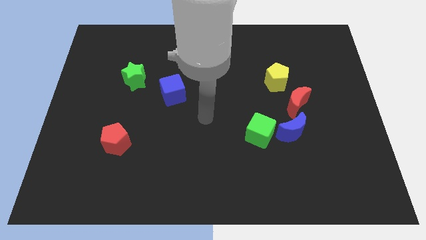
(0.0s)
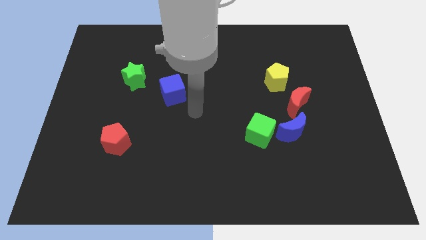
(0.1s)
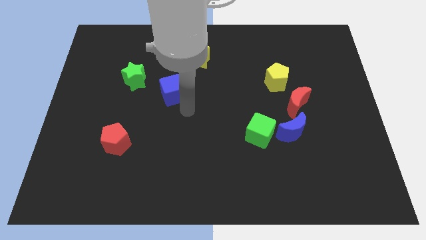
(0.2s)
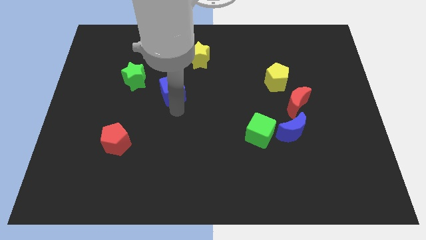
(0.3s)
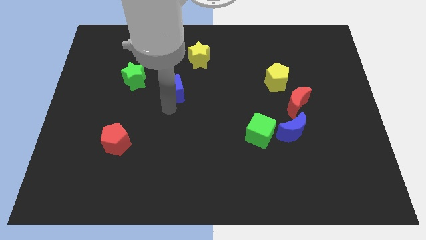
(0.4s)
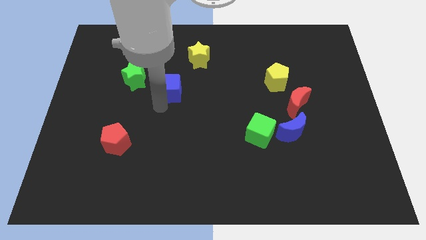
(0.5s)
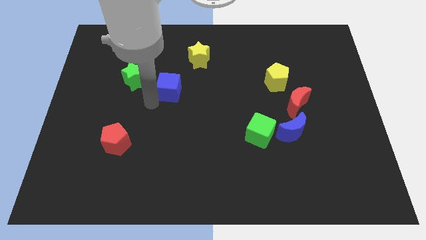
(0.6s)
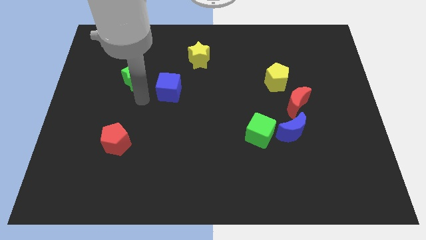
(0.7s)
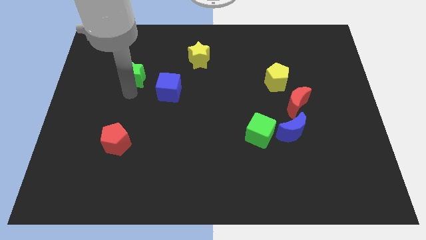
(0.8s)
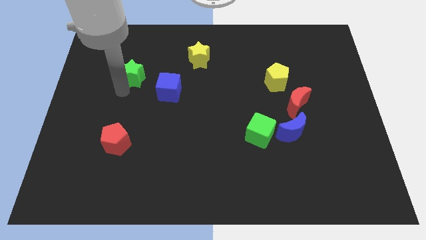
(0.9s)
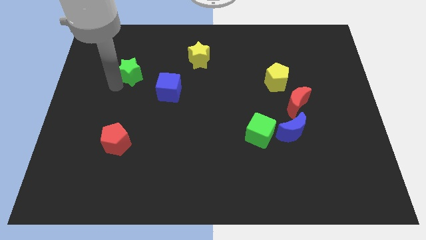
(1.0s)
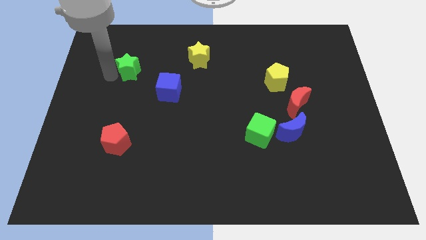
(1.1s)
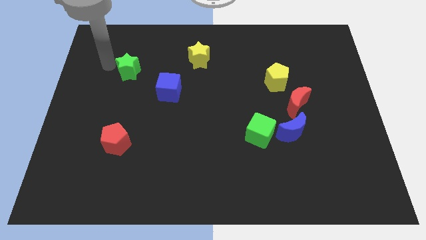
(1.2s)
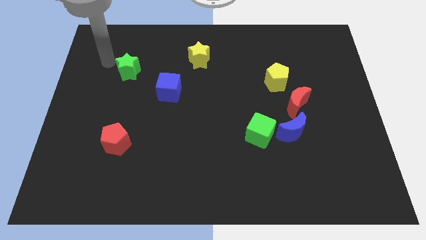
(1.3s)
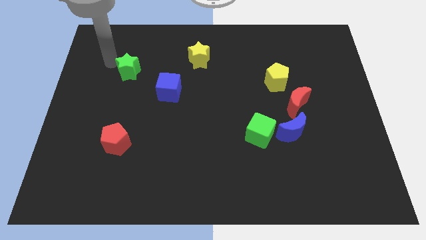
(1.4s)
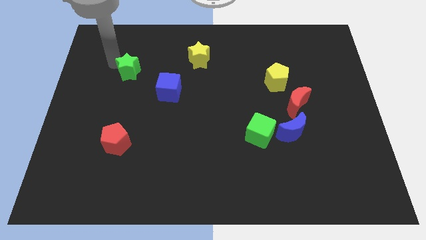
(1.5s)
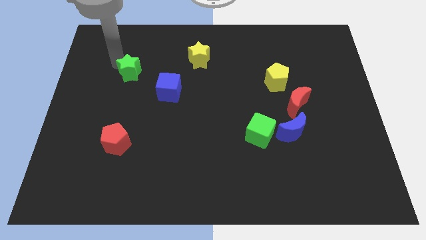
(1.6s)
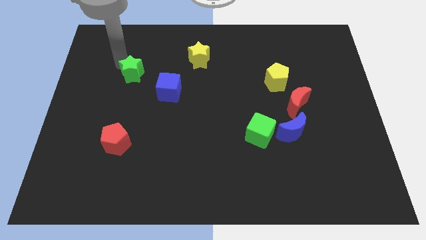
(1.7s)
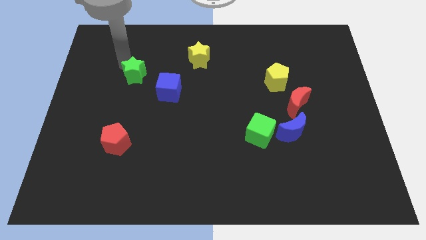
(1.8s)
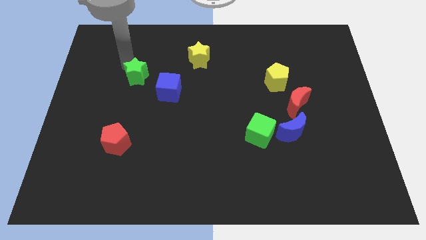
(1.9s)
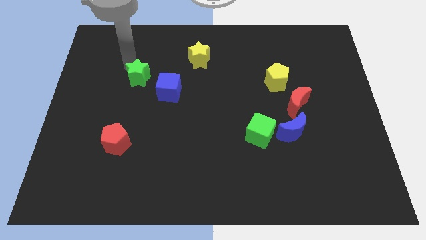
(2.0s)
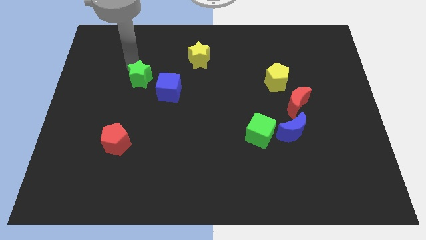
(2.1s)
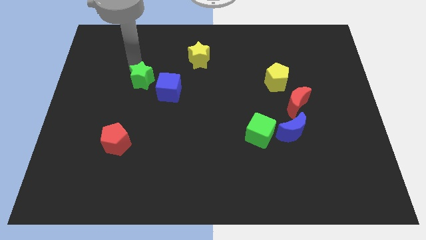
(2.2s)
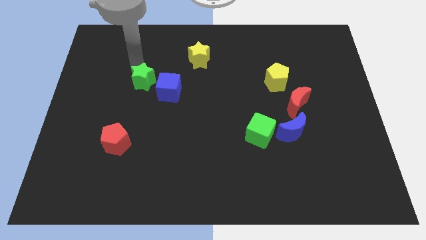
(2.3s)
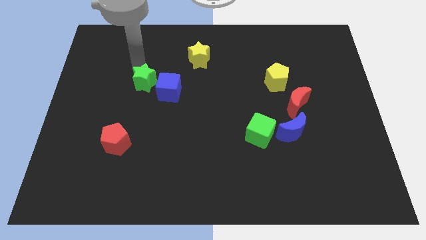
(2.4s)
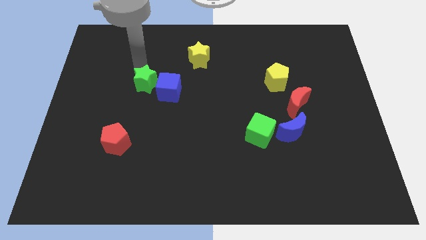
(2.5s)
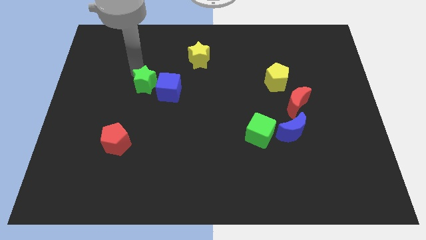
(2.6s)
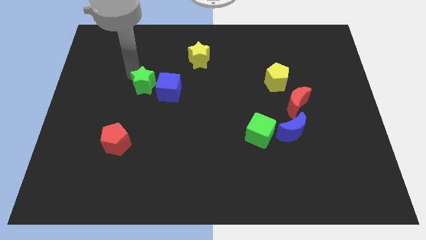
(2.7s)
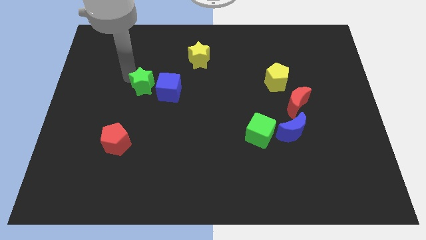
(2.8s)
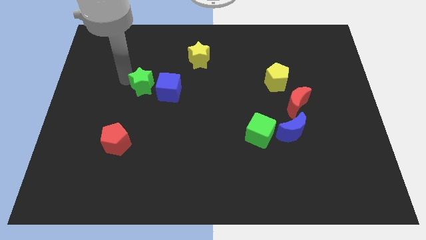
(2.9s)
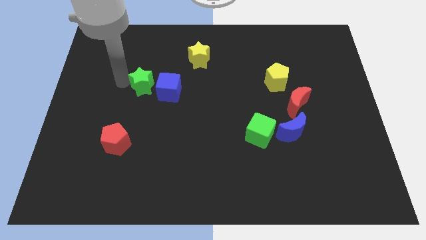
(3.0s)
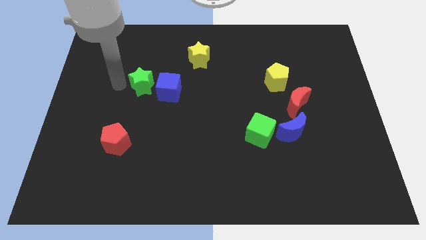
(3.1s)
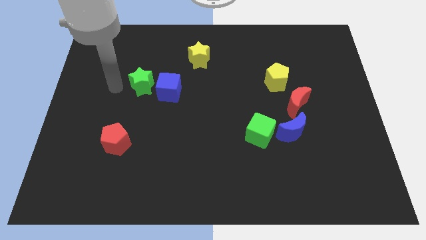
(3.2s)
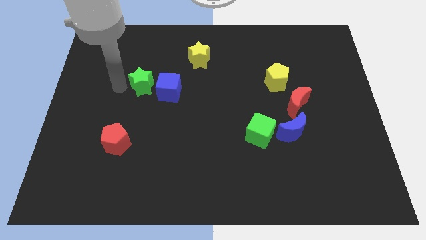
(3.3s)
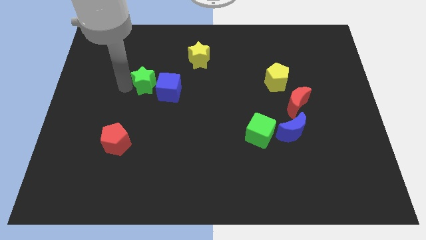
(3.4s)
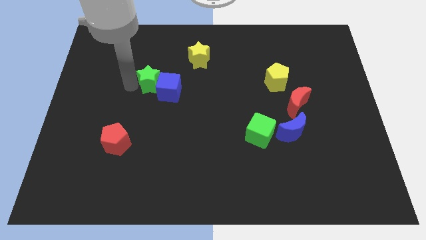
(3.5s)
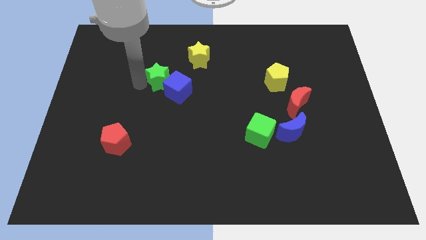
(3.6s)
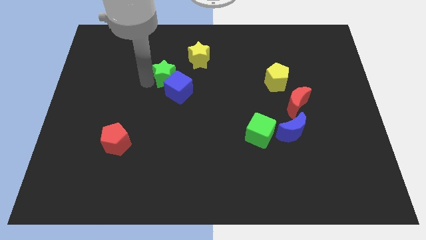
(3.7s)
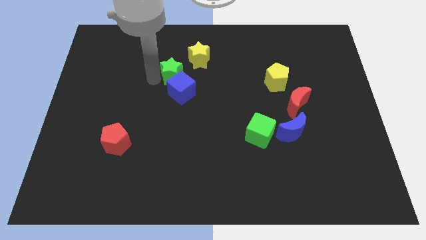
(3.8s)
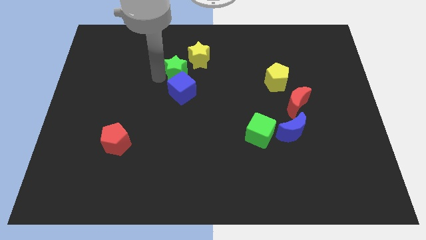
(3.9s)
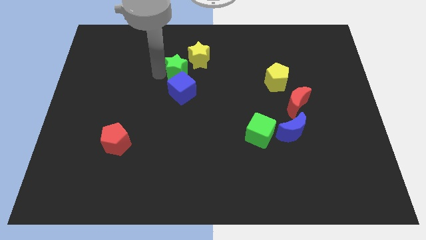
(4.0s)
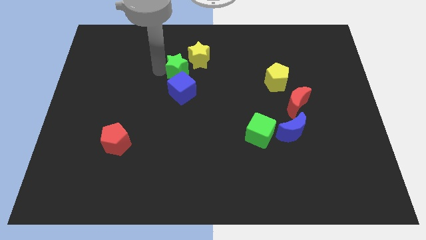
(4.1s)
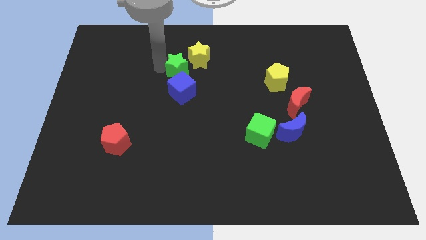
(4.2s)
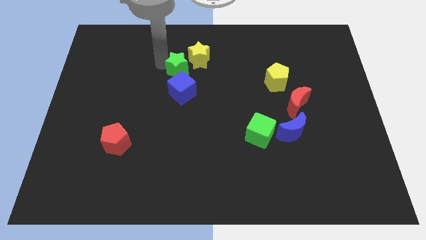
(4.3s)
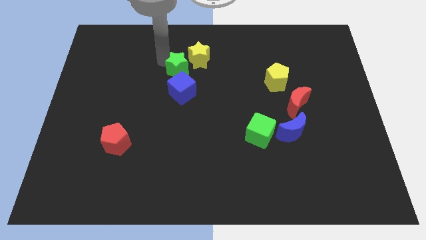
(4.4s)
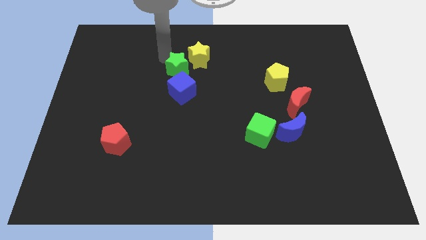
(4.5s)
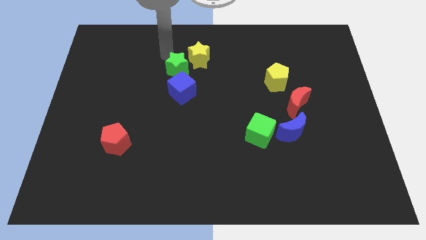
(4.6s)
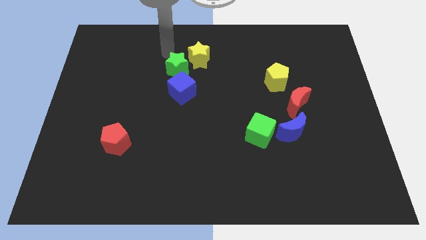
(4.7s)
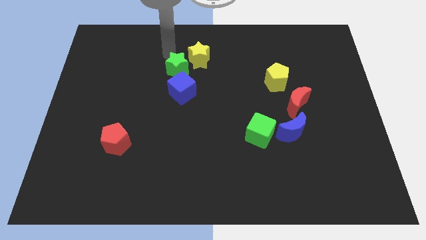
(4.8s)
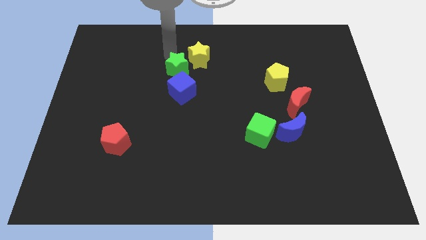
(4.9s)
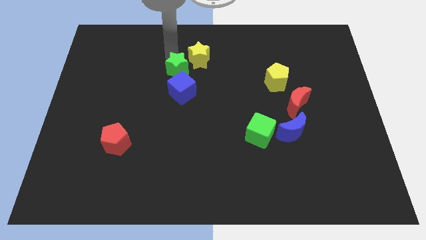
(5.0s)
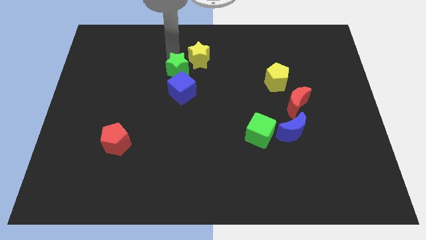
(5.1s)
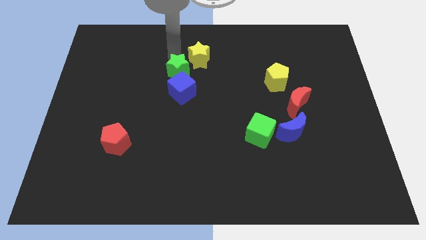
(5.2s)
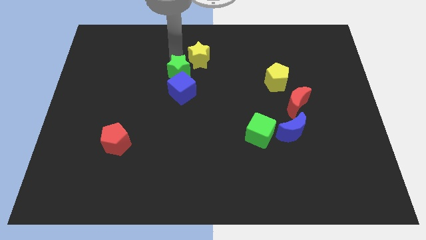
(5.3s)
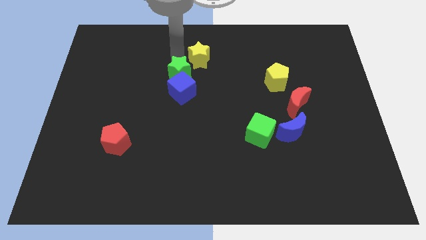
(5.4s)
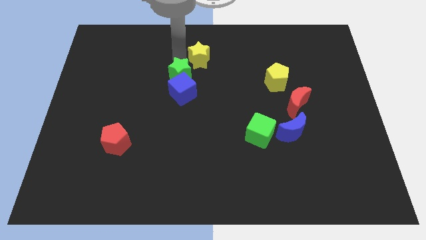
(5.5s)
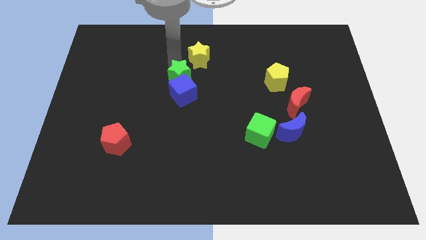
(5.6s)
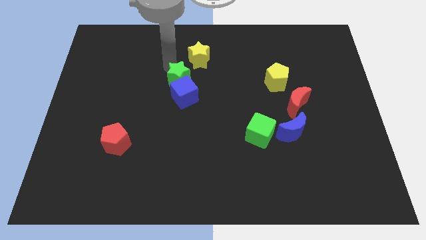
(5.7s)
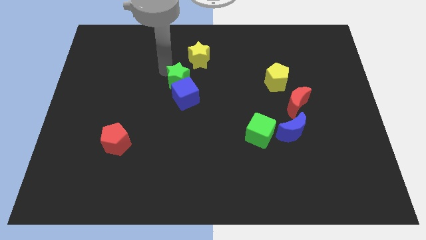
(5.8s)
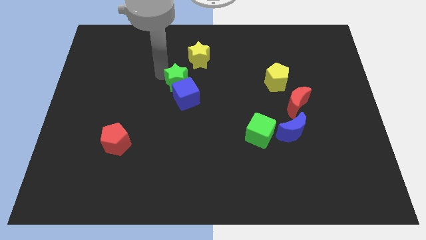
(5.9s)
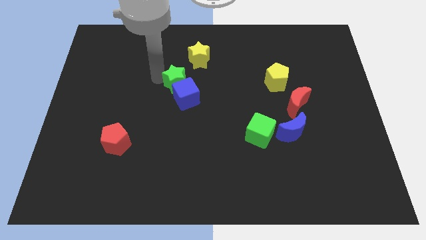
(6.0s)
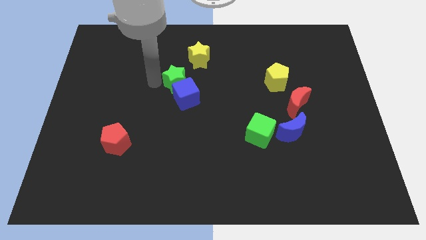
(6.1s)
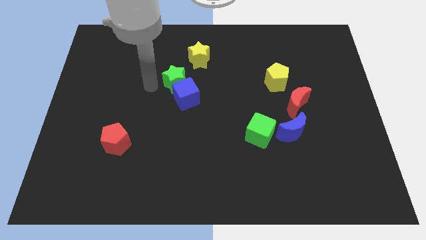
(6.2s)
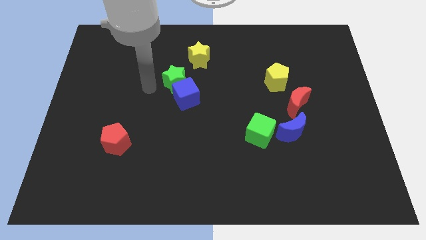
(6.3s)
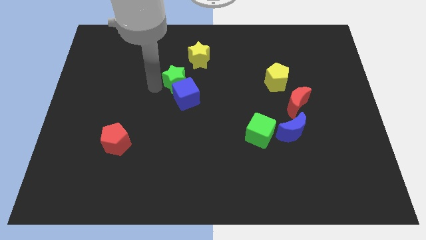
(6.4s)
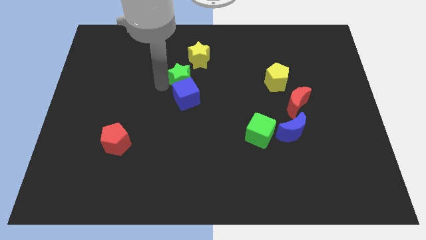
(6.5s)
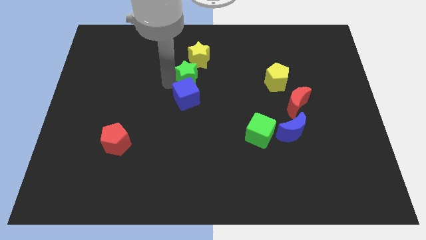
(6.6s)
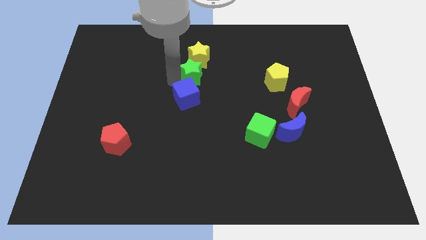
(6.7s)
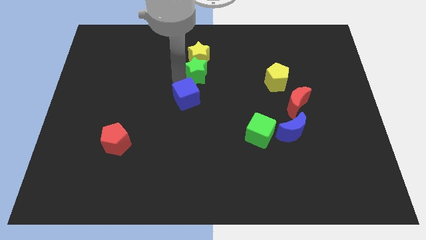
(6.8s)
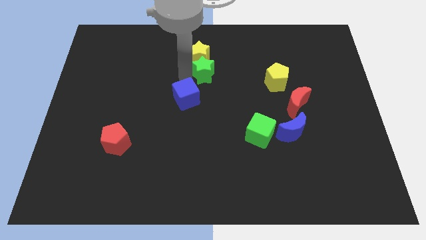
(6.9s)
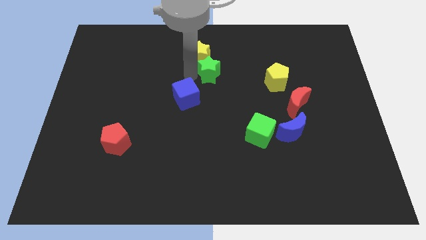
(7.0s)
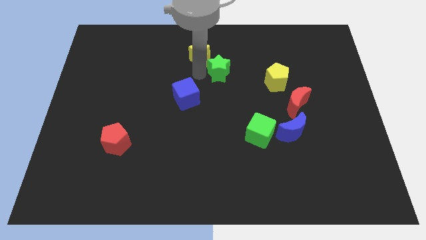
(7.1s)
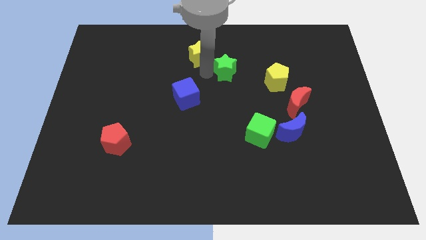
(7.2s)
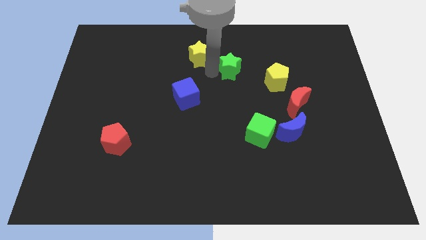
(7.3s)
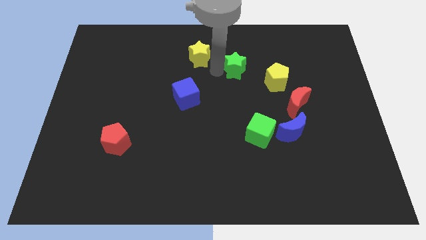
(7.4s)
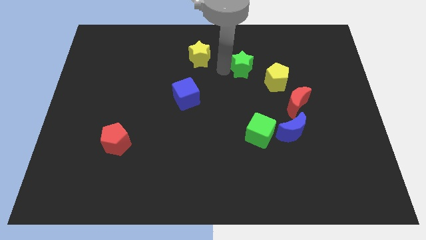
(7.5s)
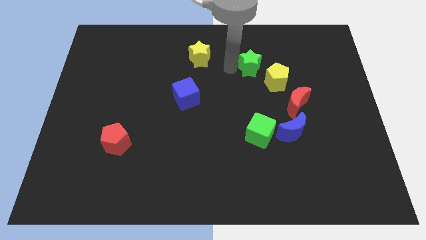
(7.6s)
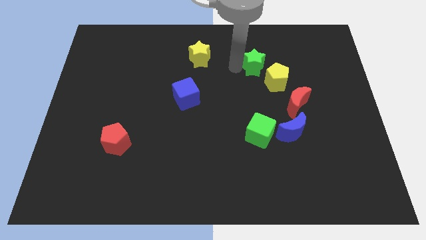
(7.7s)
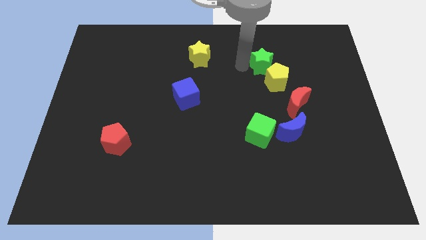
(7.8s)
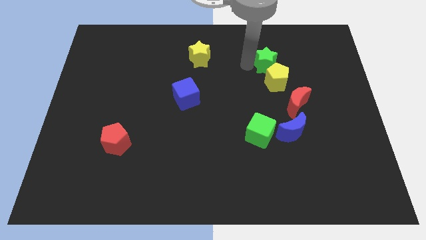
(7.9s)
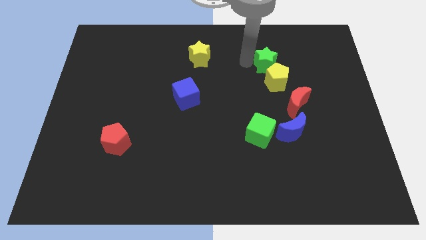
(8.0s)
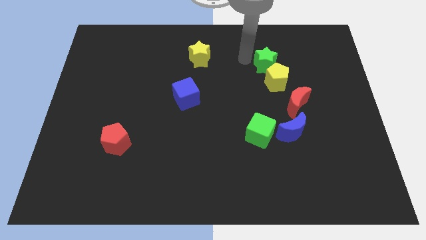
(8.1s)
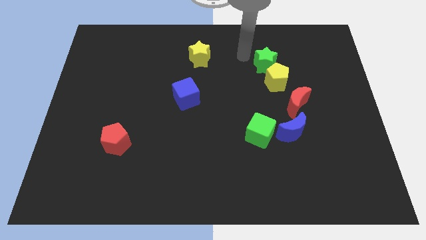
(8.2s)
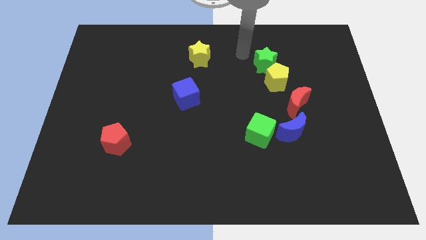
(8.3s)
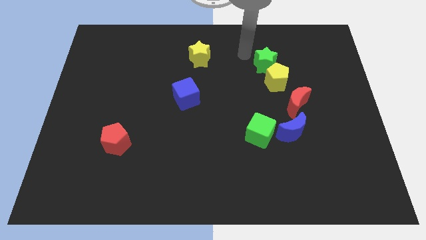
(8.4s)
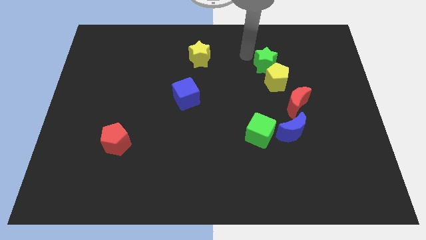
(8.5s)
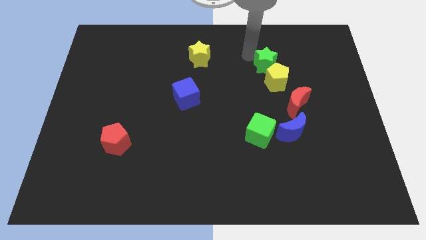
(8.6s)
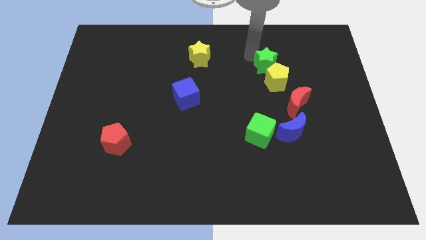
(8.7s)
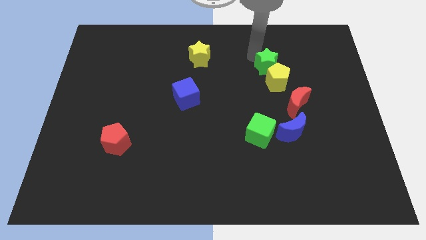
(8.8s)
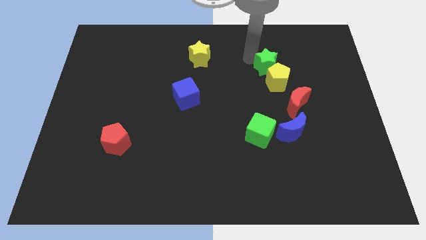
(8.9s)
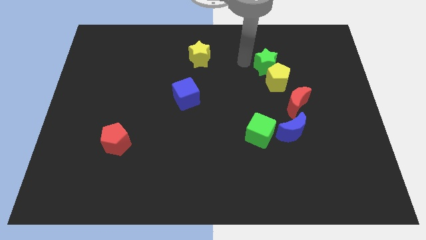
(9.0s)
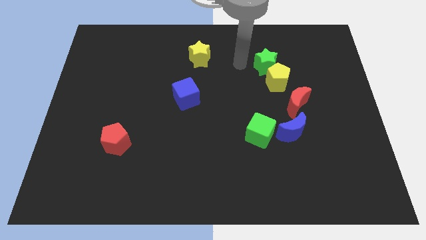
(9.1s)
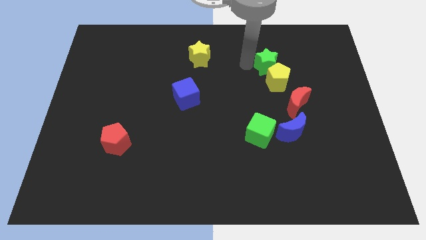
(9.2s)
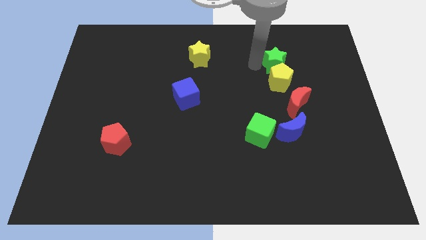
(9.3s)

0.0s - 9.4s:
push the green star to the top right of the yellow pentagon
